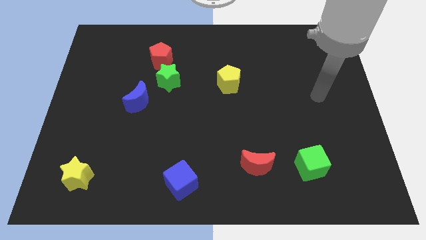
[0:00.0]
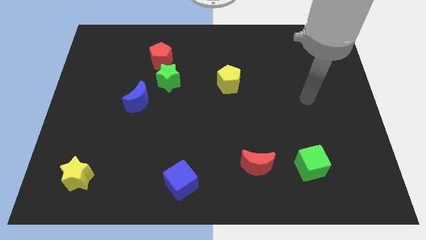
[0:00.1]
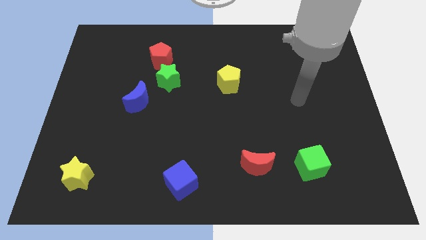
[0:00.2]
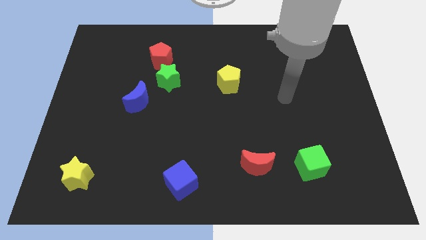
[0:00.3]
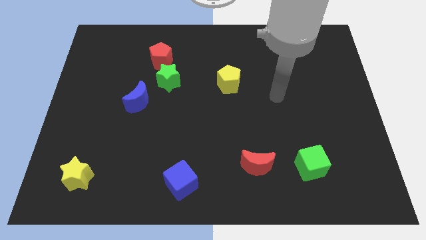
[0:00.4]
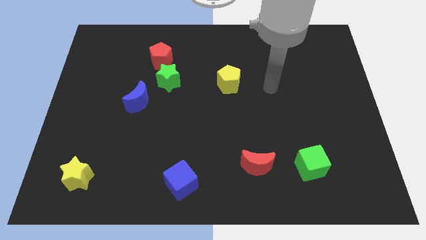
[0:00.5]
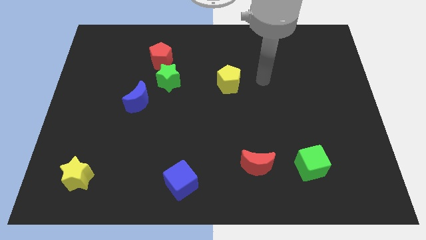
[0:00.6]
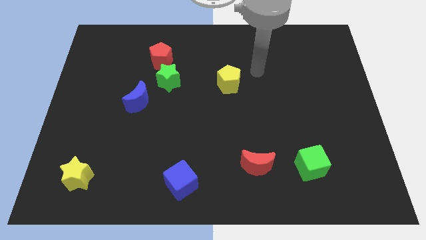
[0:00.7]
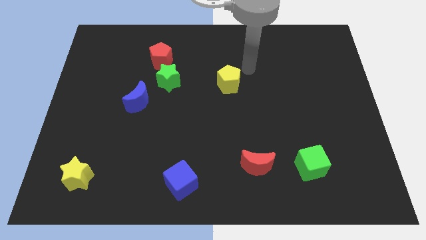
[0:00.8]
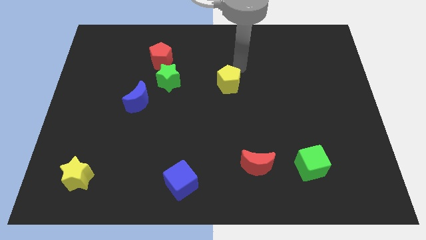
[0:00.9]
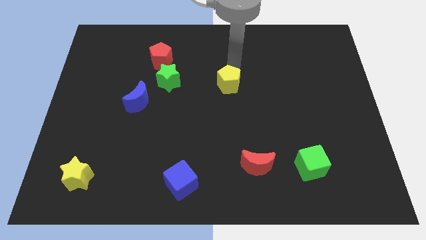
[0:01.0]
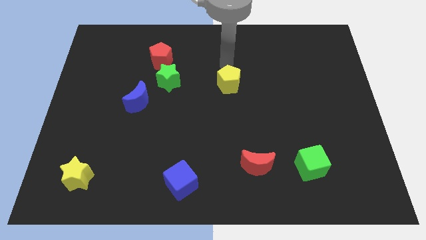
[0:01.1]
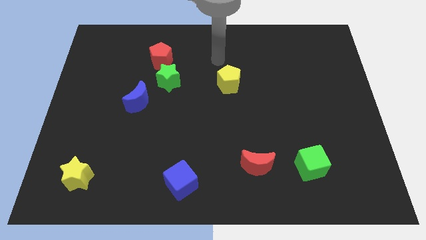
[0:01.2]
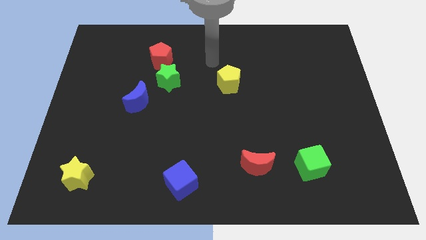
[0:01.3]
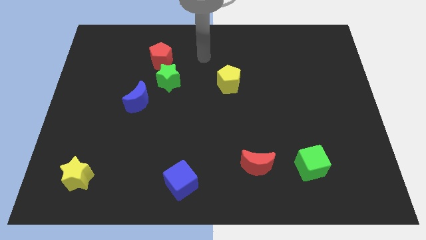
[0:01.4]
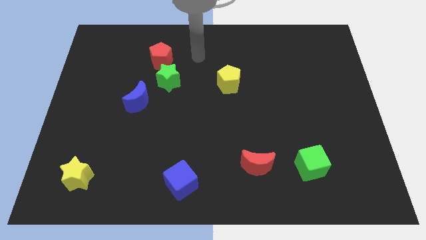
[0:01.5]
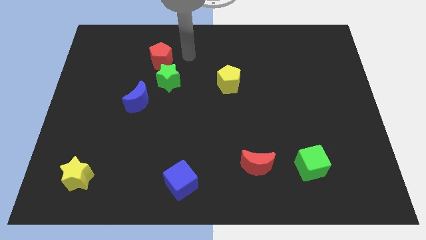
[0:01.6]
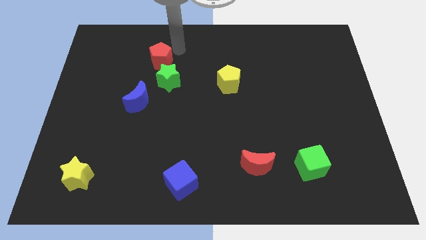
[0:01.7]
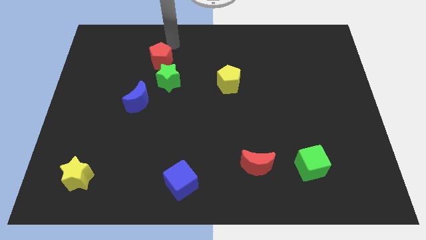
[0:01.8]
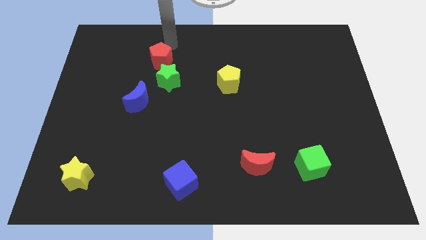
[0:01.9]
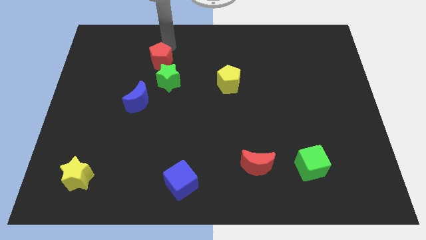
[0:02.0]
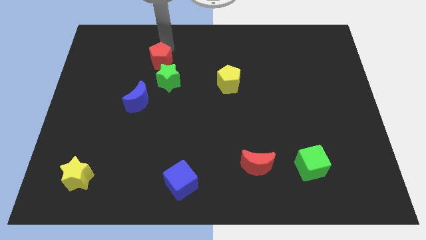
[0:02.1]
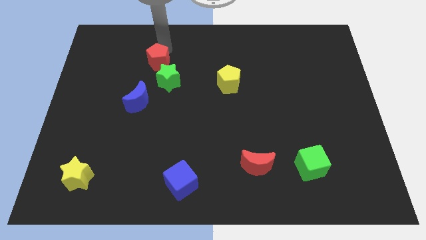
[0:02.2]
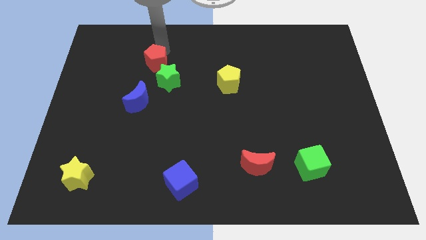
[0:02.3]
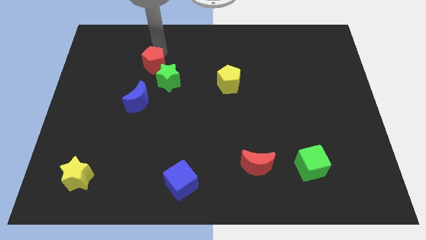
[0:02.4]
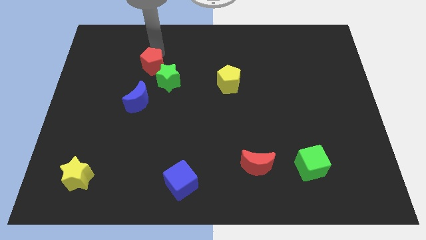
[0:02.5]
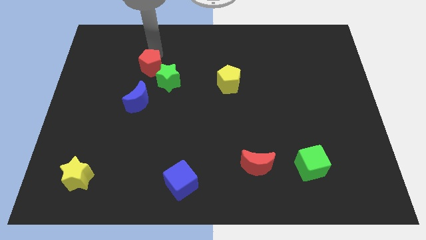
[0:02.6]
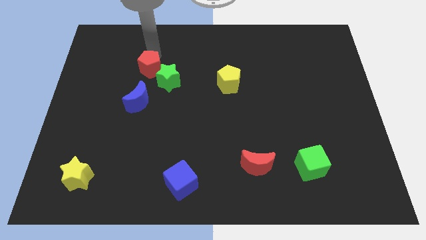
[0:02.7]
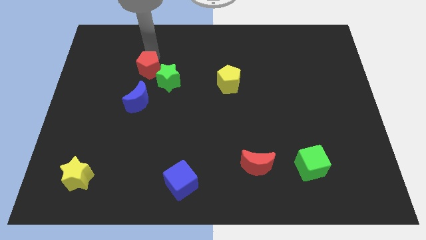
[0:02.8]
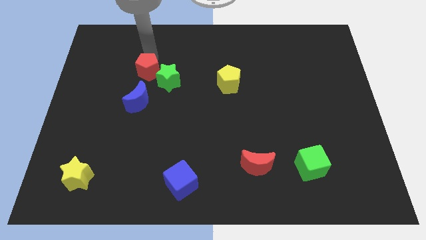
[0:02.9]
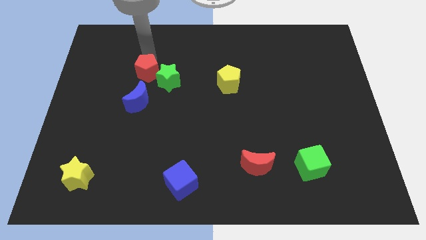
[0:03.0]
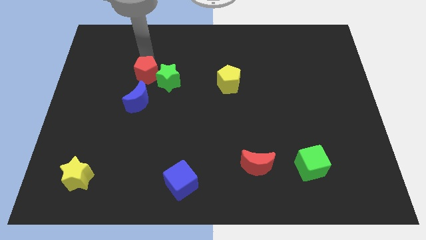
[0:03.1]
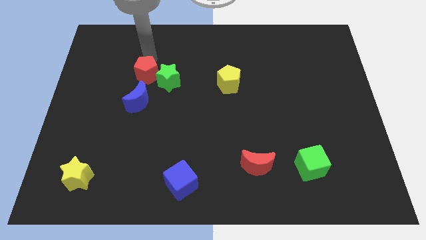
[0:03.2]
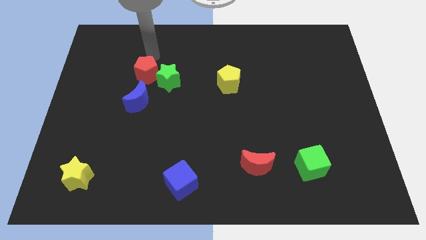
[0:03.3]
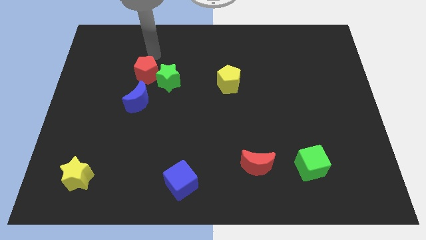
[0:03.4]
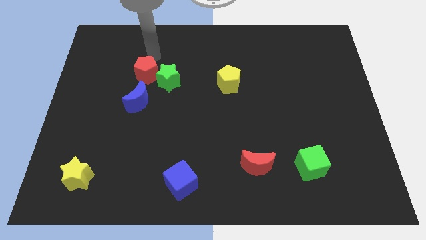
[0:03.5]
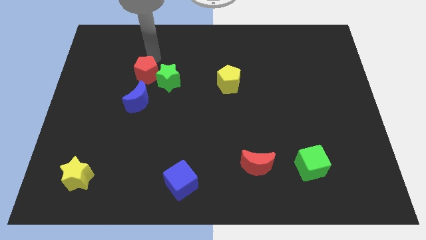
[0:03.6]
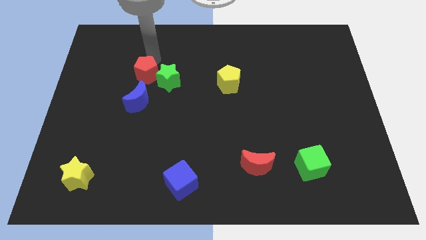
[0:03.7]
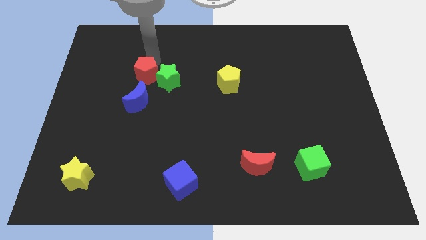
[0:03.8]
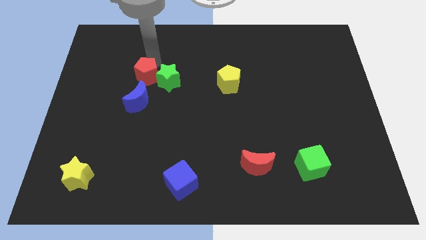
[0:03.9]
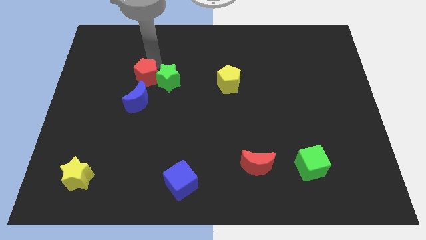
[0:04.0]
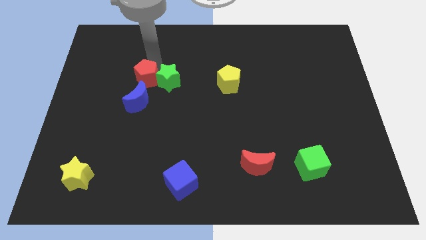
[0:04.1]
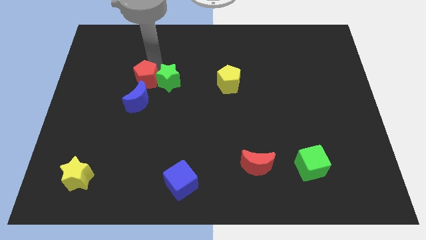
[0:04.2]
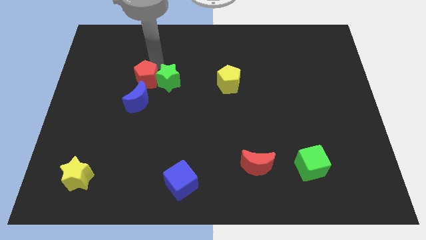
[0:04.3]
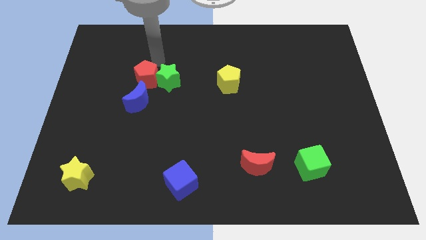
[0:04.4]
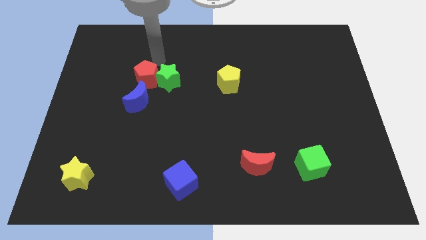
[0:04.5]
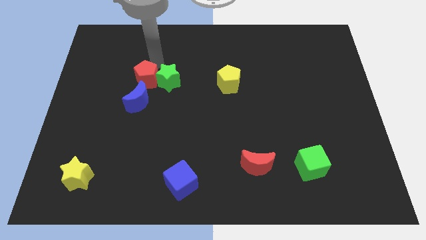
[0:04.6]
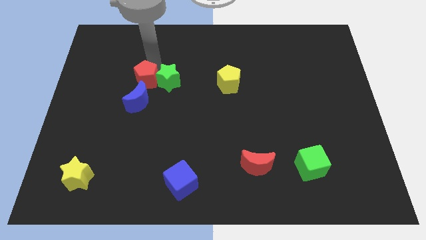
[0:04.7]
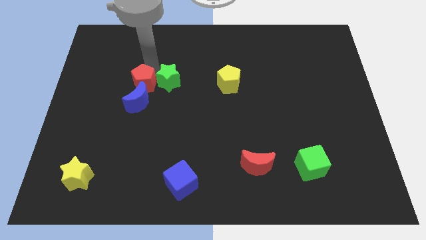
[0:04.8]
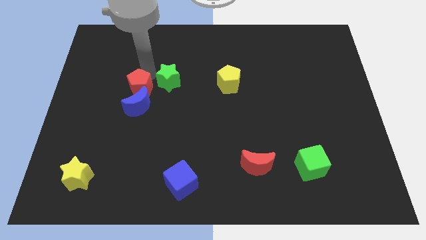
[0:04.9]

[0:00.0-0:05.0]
put the red pentagon towards the blue moon

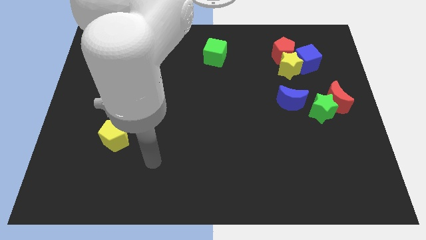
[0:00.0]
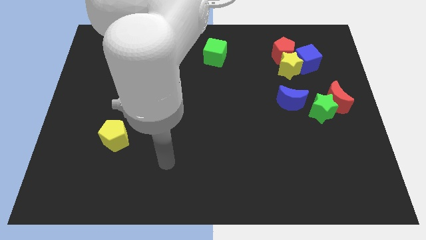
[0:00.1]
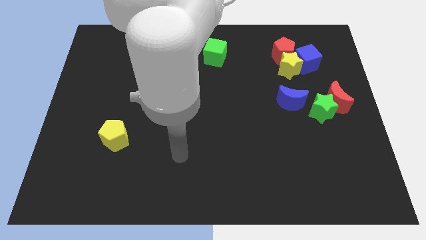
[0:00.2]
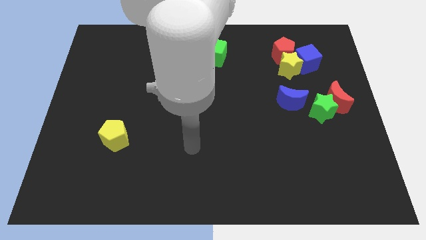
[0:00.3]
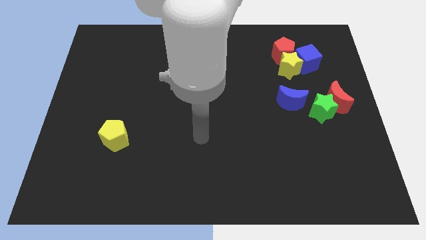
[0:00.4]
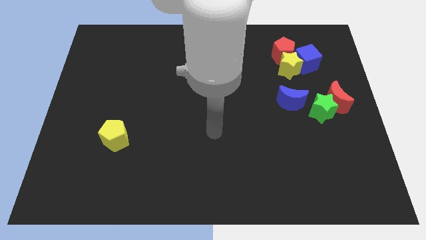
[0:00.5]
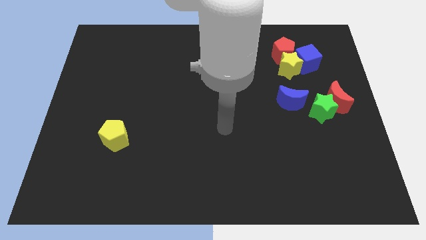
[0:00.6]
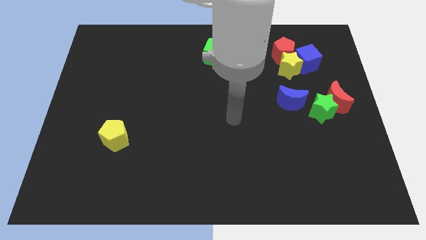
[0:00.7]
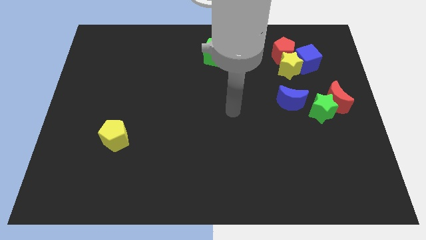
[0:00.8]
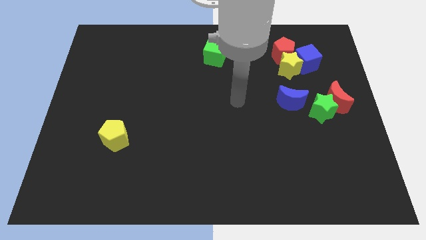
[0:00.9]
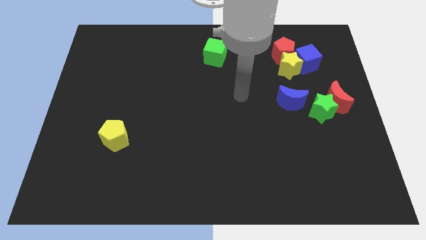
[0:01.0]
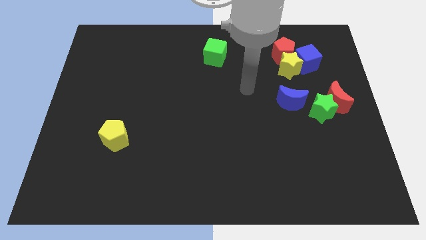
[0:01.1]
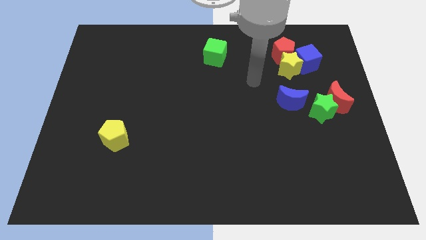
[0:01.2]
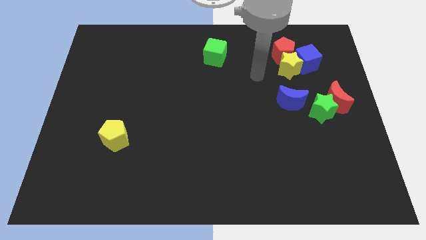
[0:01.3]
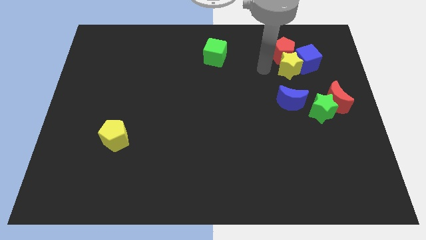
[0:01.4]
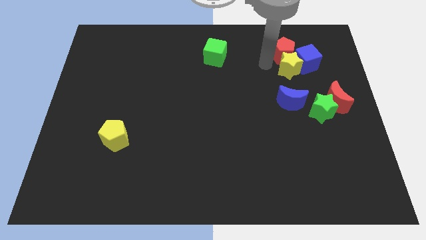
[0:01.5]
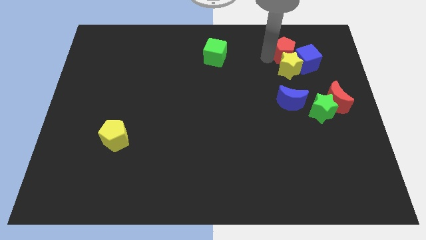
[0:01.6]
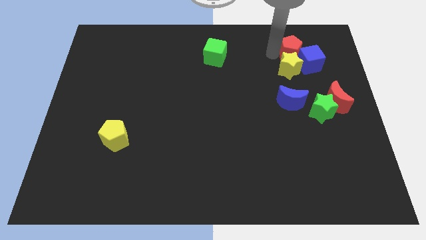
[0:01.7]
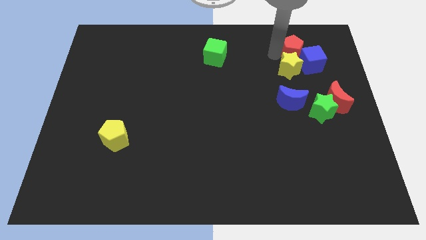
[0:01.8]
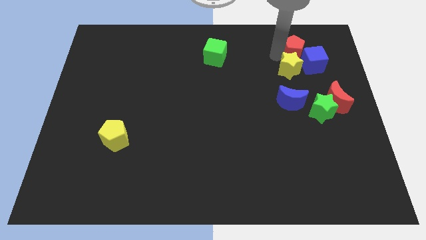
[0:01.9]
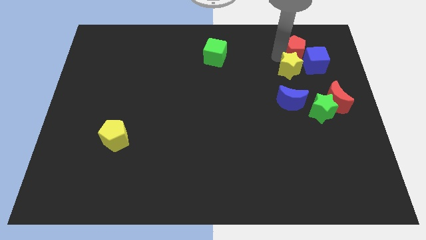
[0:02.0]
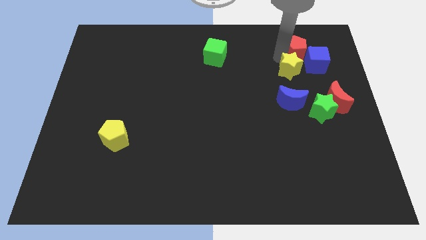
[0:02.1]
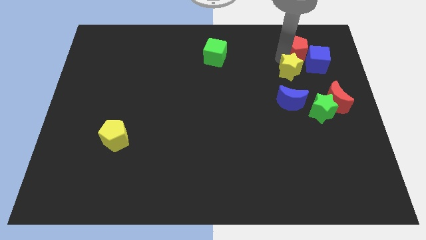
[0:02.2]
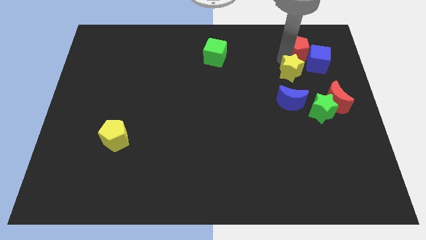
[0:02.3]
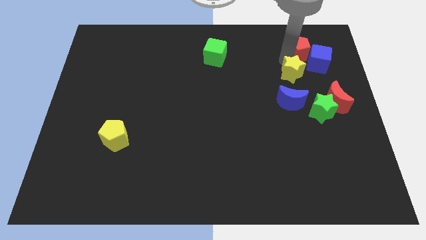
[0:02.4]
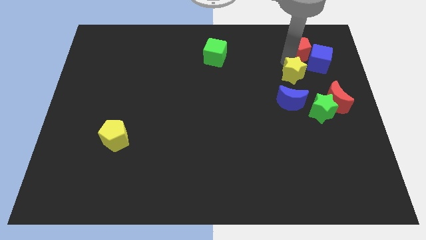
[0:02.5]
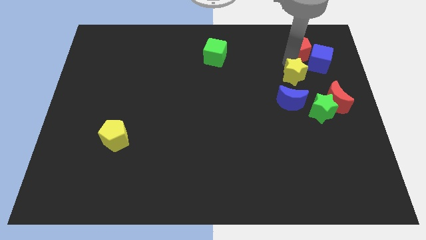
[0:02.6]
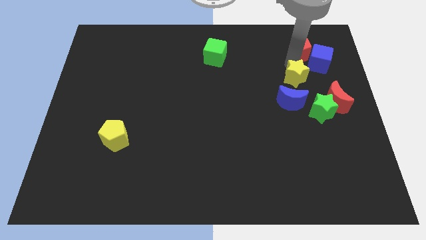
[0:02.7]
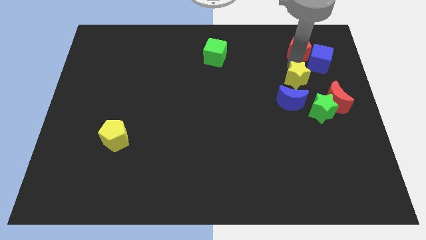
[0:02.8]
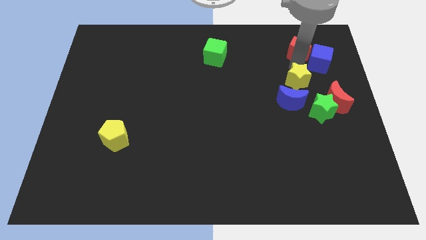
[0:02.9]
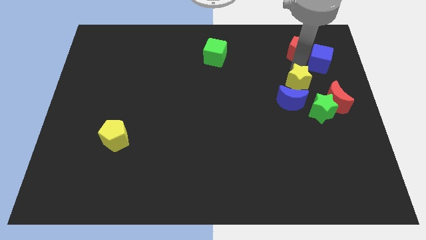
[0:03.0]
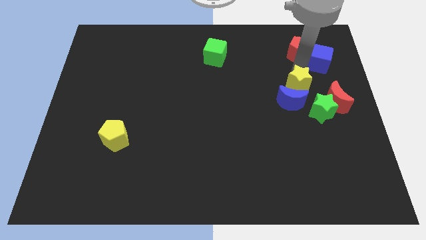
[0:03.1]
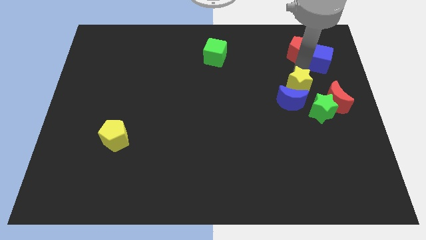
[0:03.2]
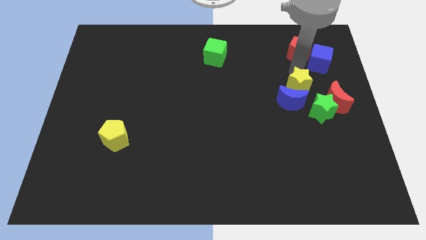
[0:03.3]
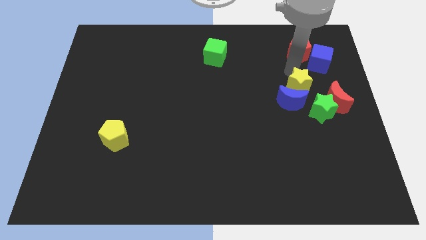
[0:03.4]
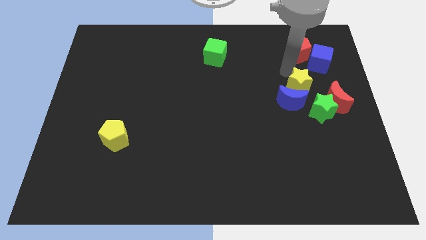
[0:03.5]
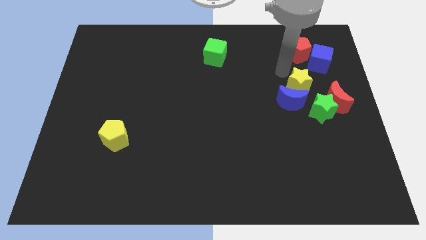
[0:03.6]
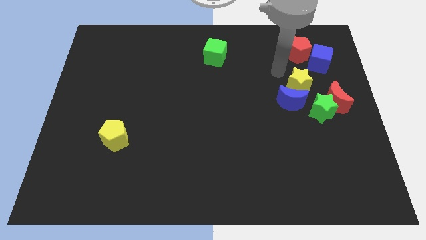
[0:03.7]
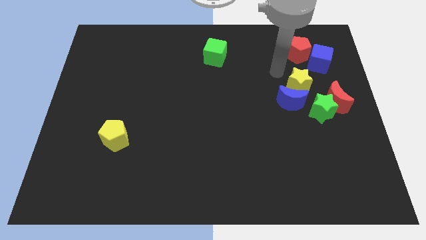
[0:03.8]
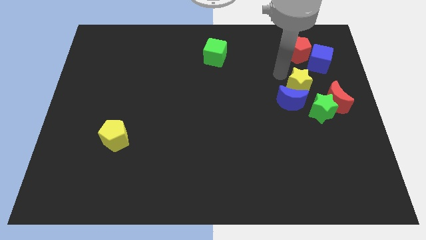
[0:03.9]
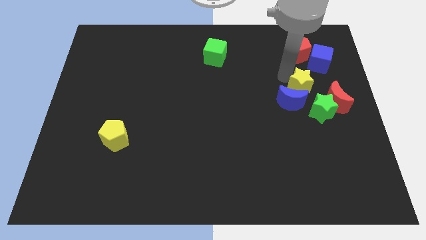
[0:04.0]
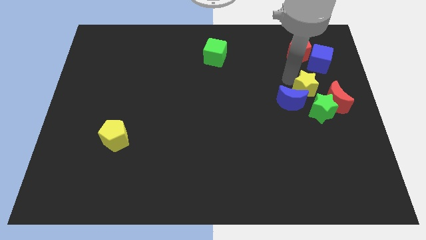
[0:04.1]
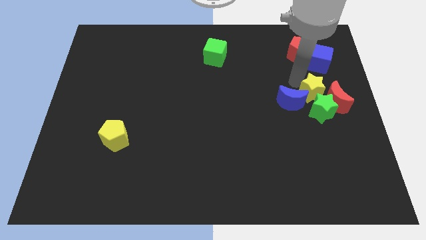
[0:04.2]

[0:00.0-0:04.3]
slide the yellow star close to the green star
